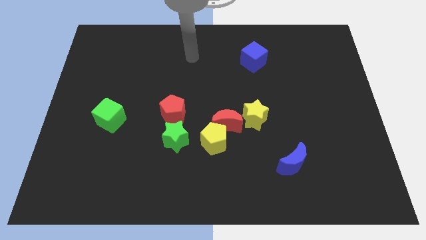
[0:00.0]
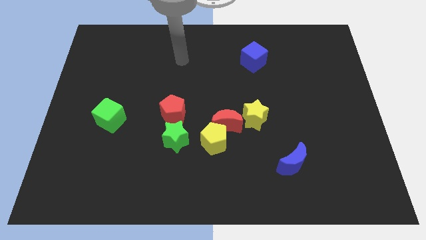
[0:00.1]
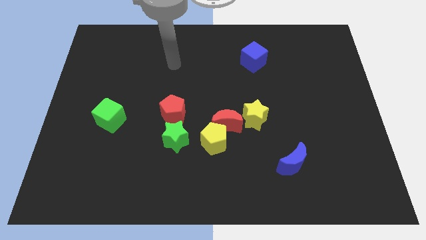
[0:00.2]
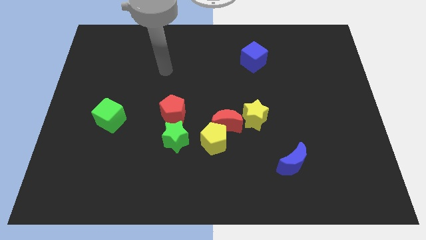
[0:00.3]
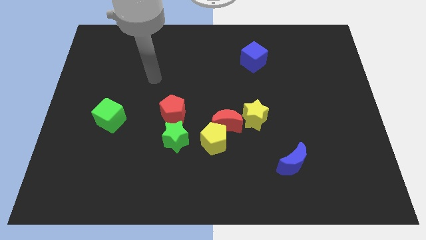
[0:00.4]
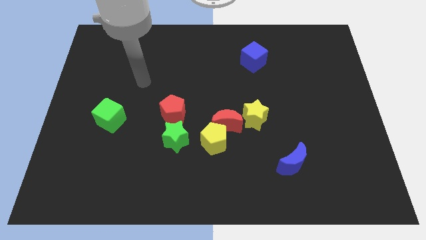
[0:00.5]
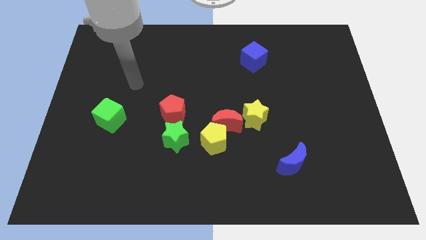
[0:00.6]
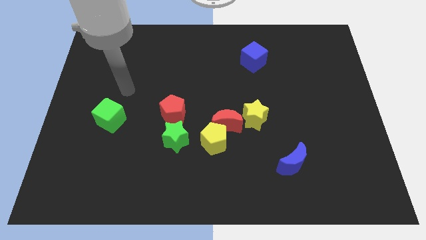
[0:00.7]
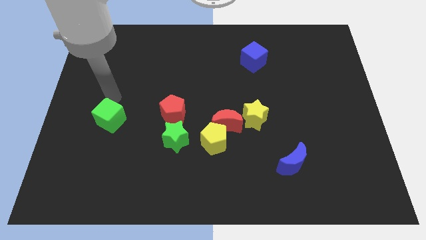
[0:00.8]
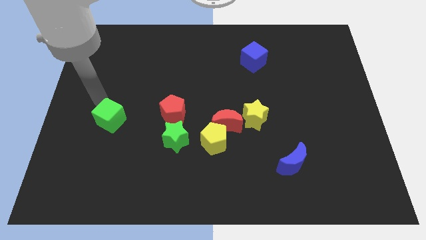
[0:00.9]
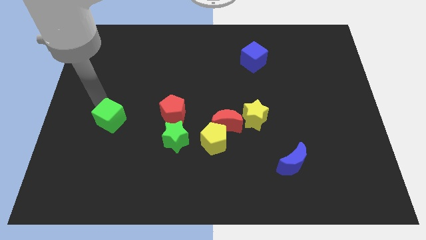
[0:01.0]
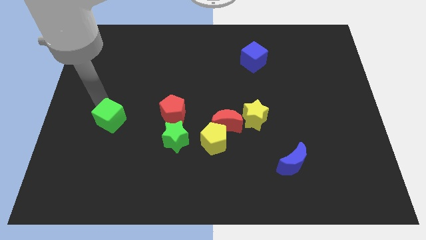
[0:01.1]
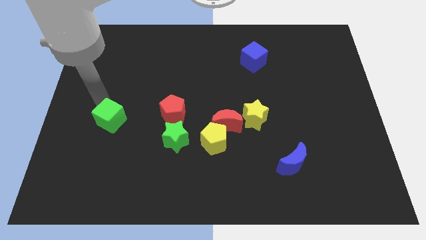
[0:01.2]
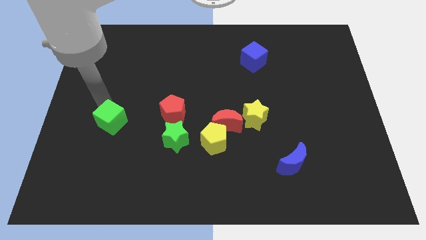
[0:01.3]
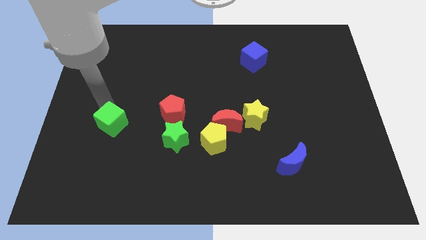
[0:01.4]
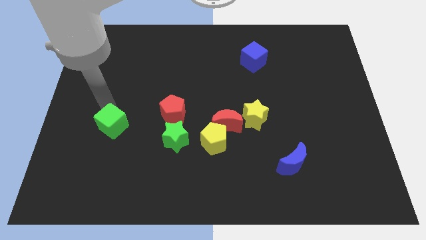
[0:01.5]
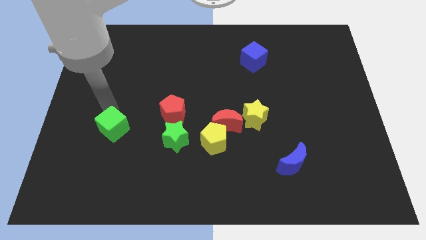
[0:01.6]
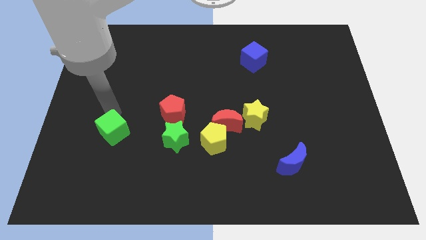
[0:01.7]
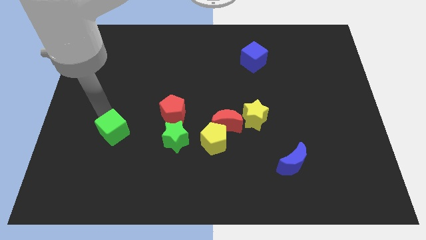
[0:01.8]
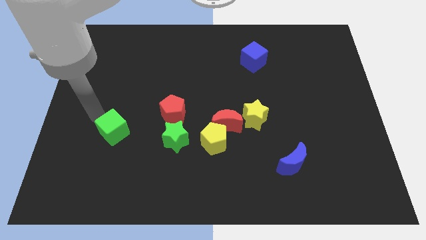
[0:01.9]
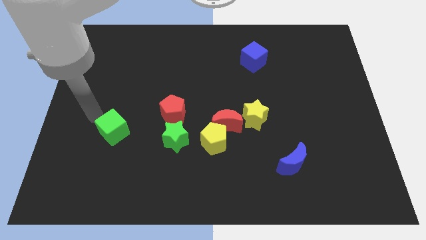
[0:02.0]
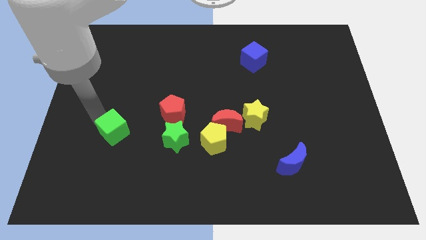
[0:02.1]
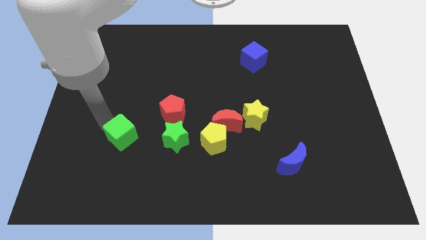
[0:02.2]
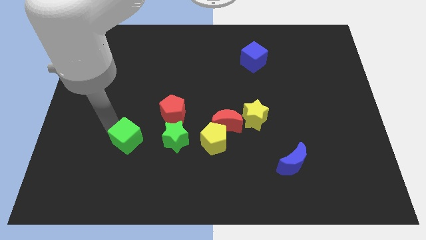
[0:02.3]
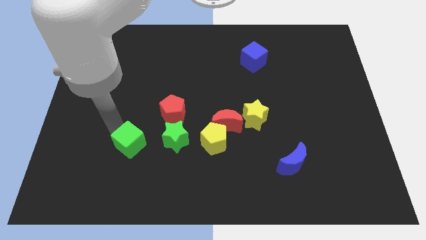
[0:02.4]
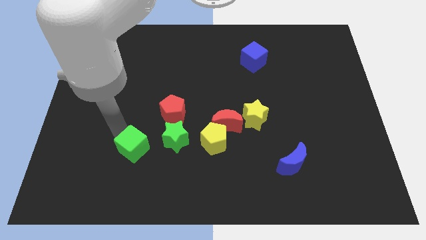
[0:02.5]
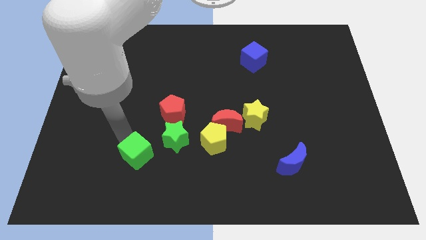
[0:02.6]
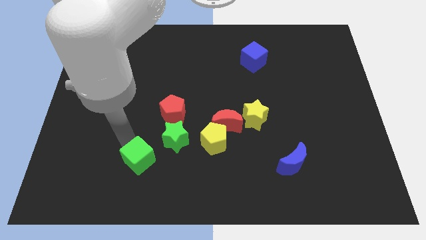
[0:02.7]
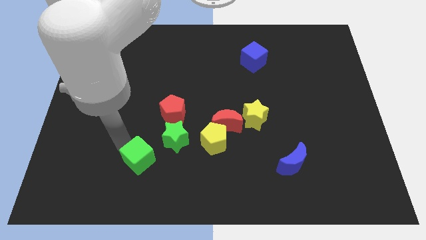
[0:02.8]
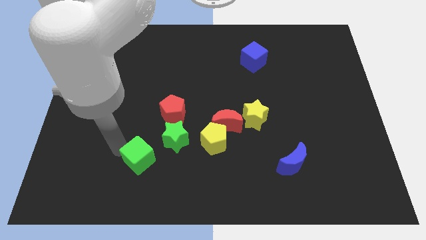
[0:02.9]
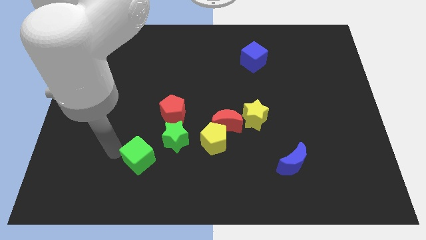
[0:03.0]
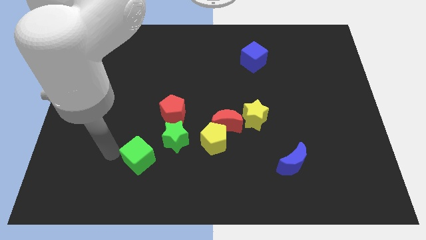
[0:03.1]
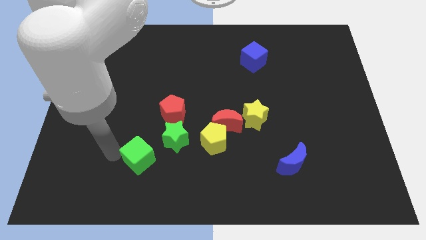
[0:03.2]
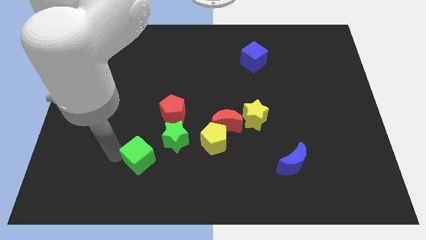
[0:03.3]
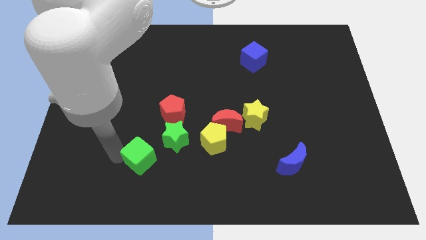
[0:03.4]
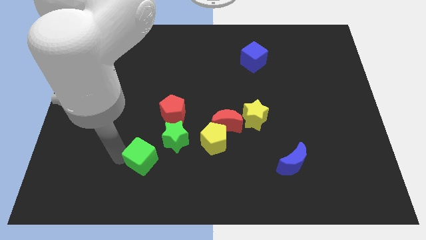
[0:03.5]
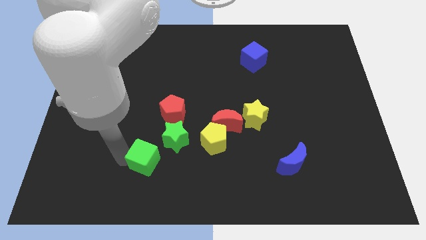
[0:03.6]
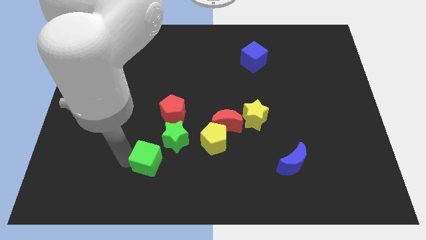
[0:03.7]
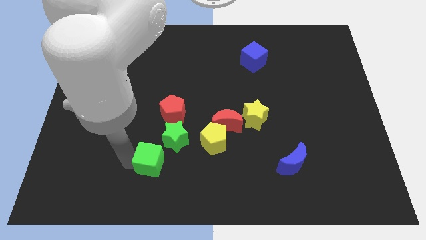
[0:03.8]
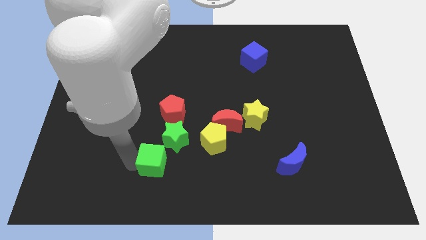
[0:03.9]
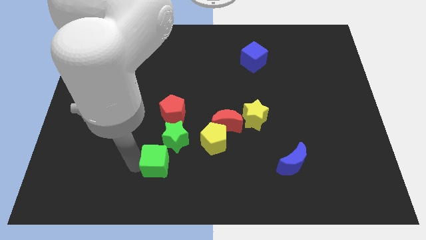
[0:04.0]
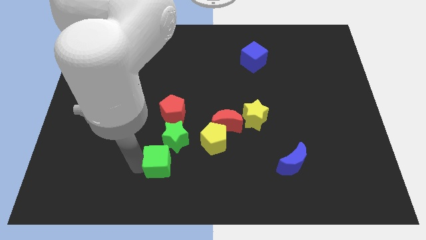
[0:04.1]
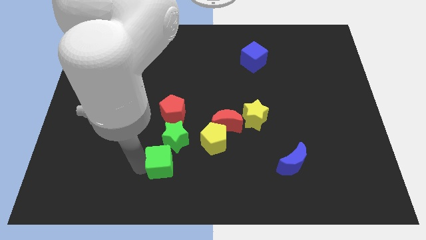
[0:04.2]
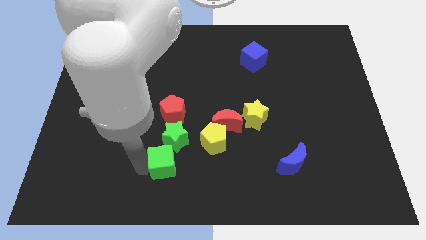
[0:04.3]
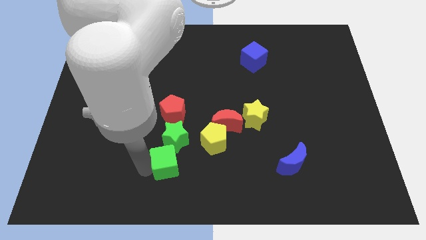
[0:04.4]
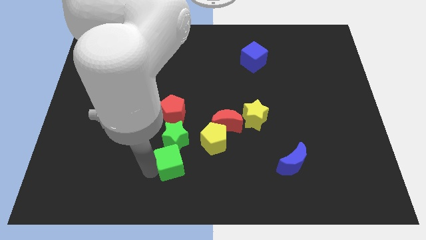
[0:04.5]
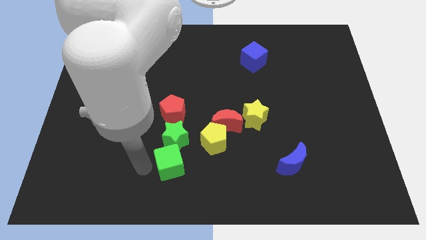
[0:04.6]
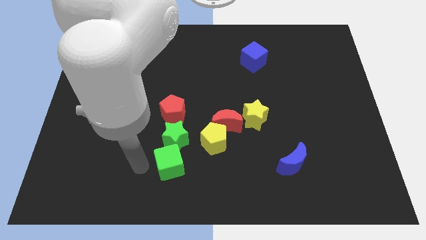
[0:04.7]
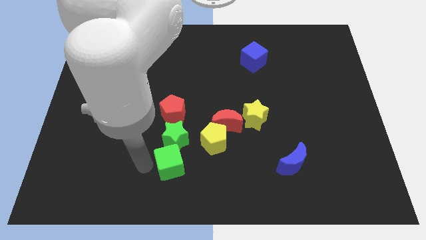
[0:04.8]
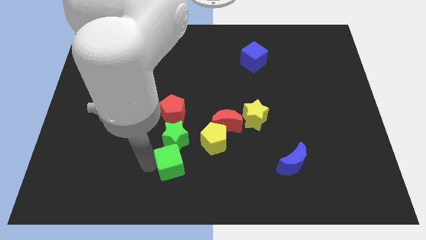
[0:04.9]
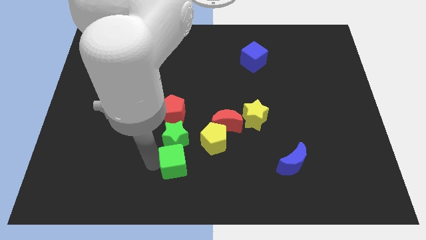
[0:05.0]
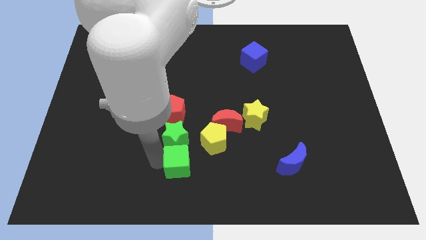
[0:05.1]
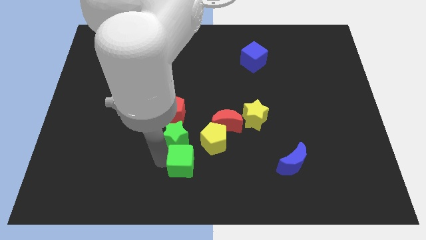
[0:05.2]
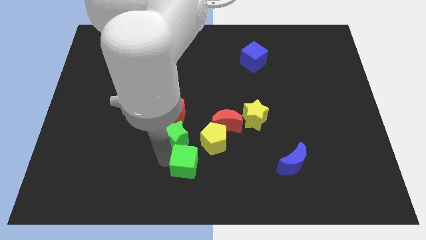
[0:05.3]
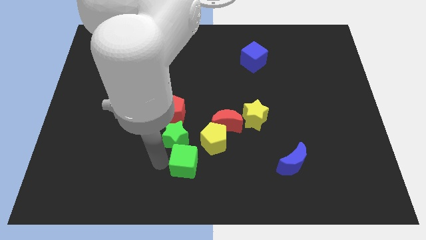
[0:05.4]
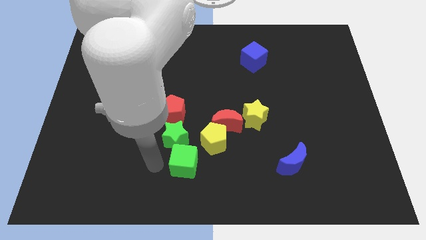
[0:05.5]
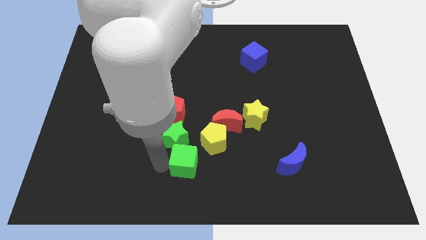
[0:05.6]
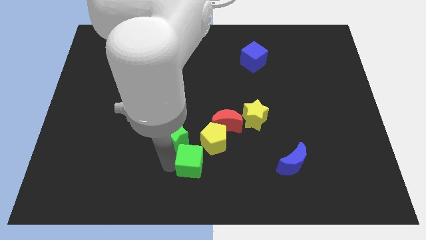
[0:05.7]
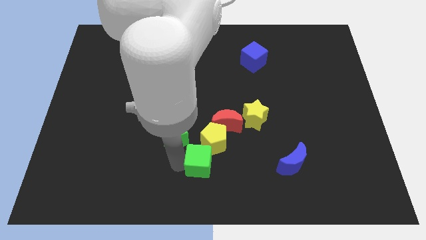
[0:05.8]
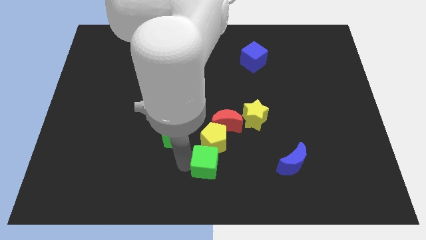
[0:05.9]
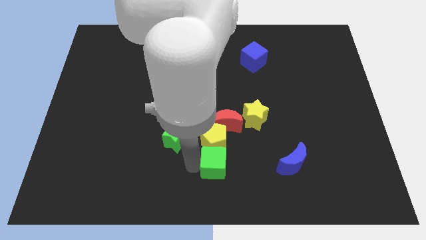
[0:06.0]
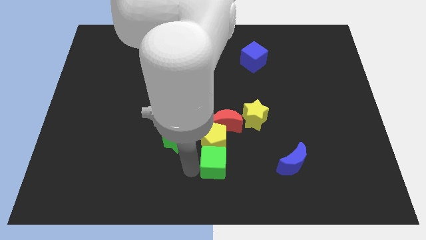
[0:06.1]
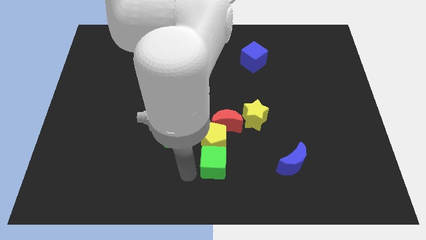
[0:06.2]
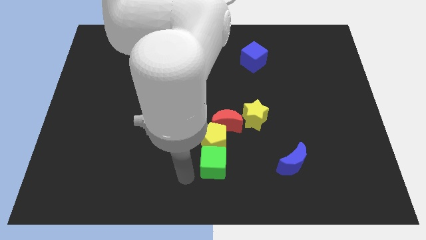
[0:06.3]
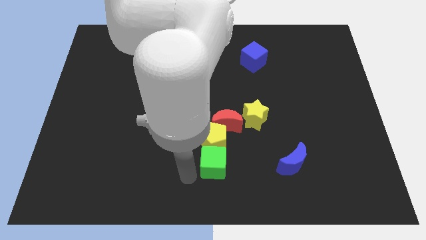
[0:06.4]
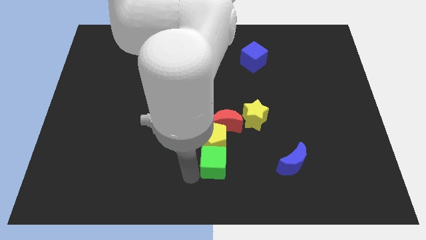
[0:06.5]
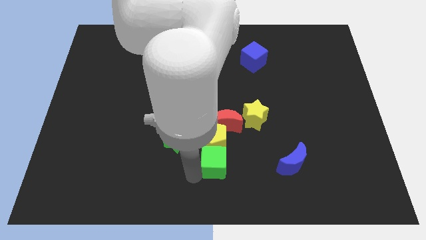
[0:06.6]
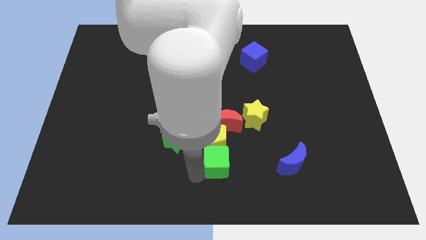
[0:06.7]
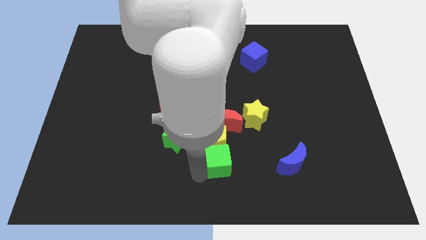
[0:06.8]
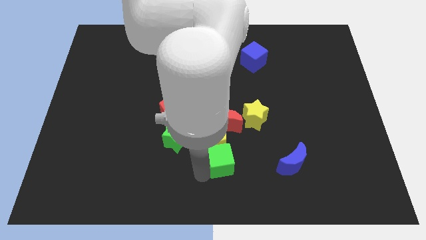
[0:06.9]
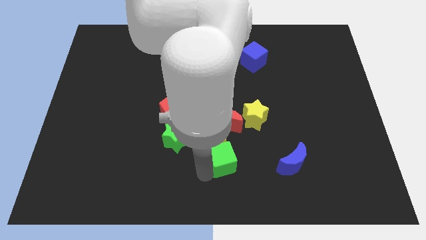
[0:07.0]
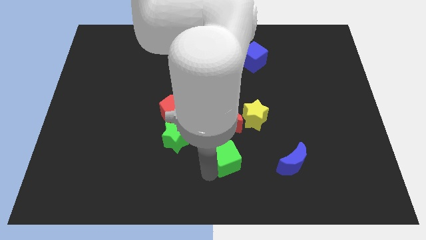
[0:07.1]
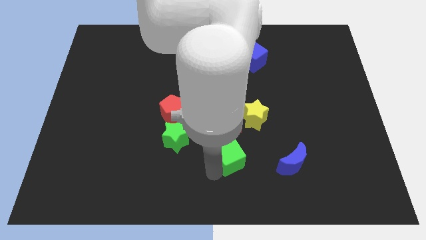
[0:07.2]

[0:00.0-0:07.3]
push the green cube right of the yellow pentagon

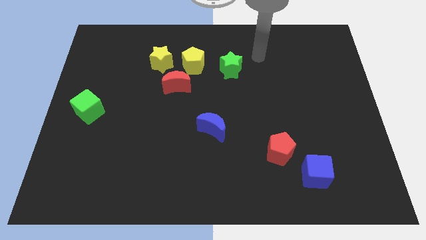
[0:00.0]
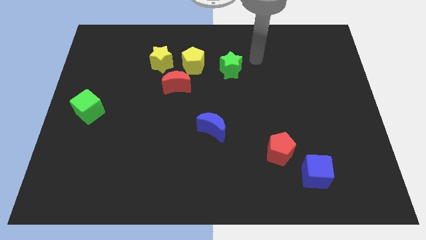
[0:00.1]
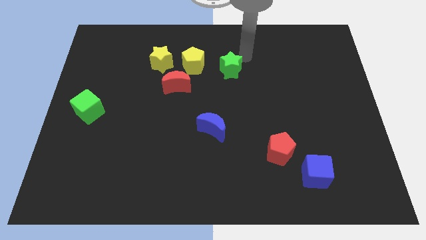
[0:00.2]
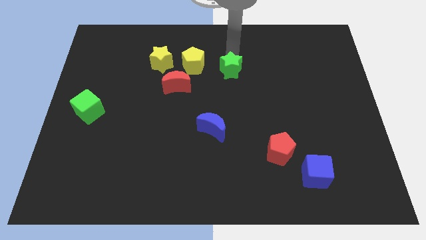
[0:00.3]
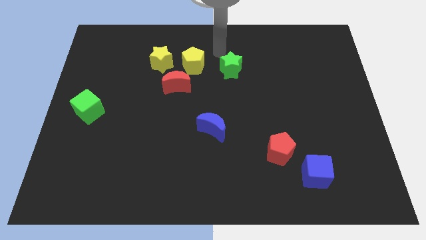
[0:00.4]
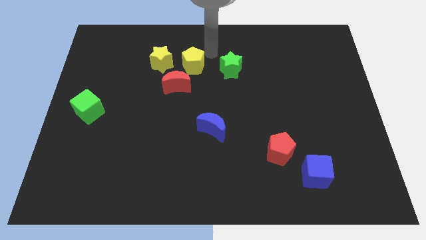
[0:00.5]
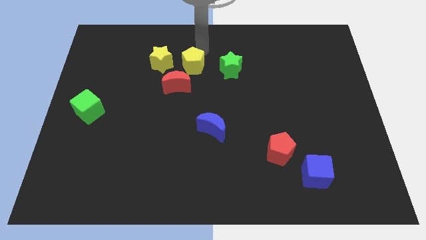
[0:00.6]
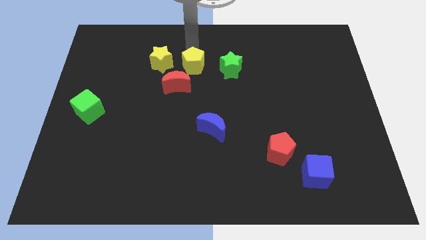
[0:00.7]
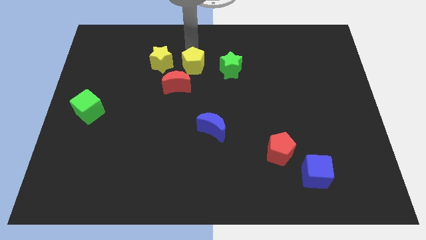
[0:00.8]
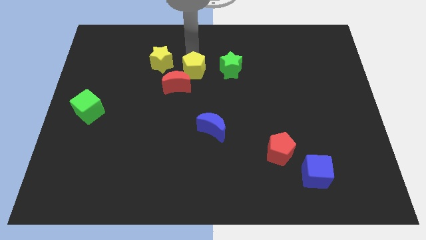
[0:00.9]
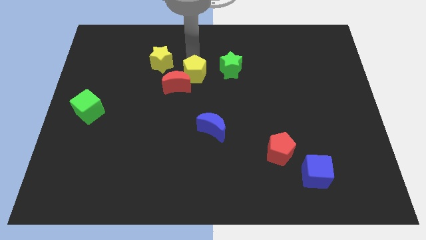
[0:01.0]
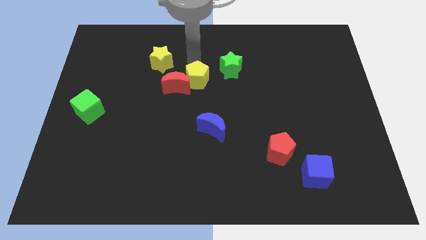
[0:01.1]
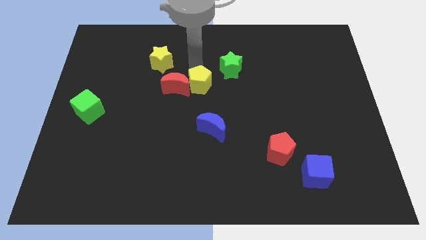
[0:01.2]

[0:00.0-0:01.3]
move the yellow pentagon to the bottom right of the red moon
